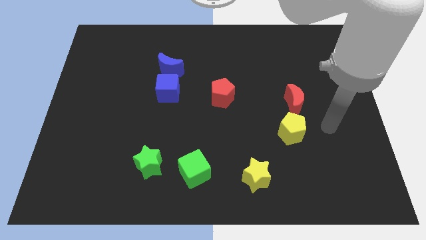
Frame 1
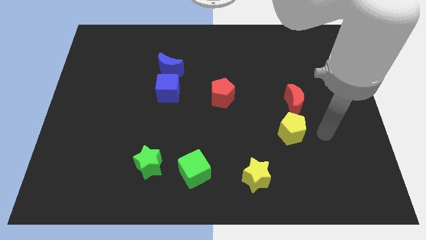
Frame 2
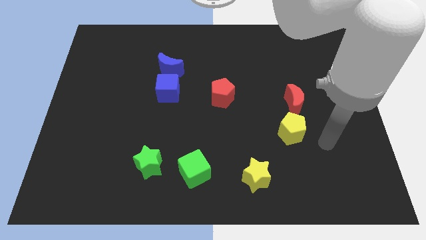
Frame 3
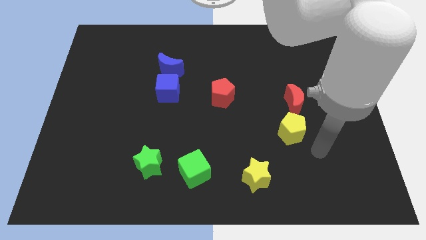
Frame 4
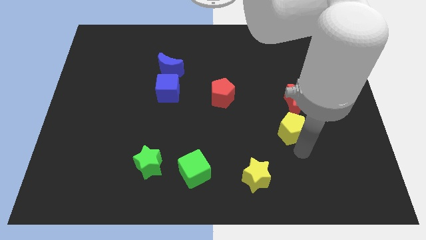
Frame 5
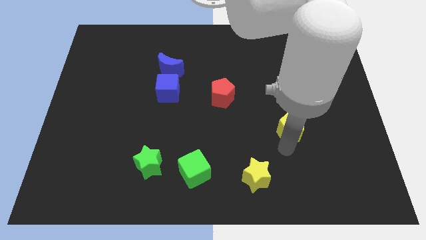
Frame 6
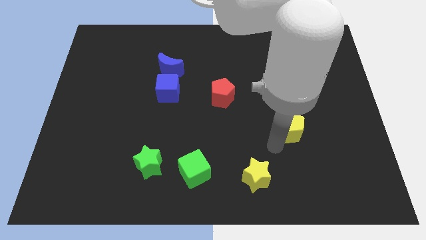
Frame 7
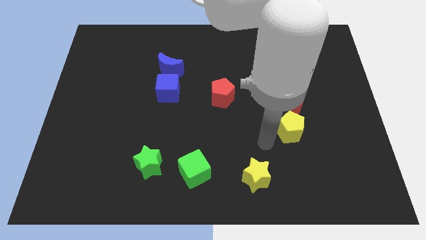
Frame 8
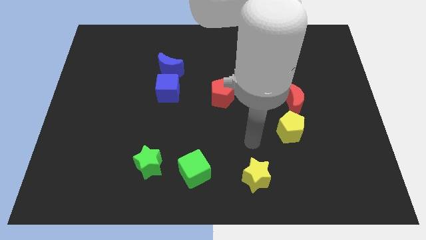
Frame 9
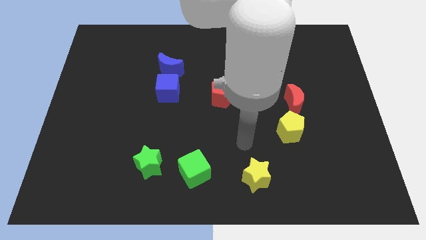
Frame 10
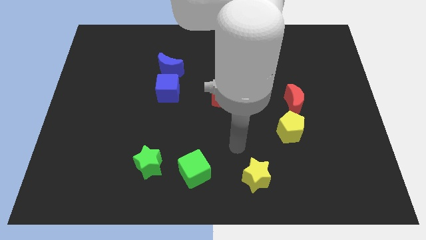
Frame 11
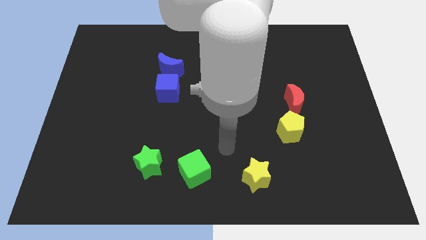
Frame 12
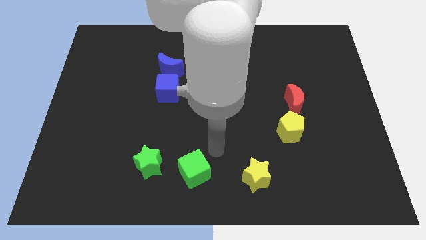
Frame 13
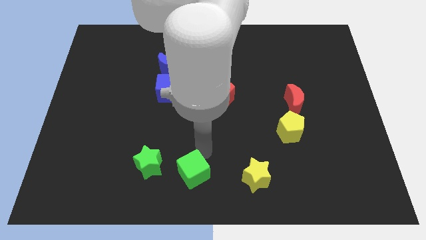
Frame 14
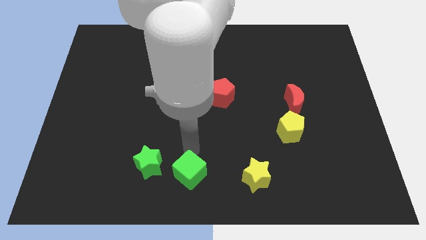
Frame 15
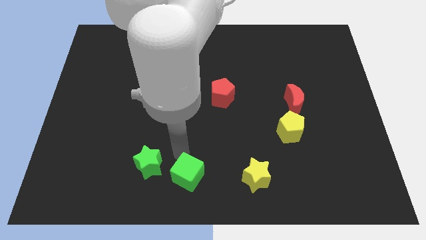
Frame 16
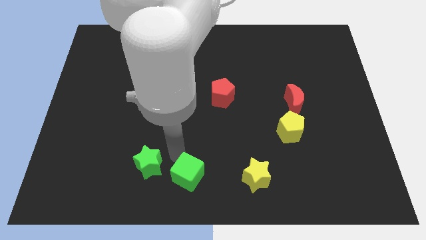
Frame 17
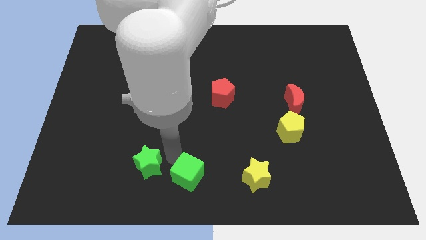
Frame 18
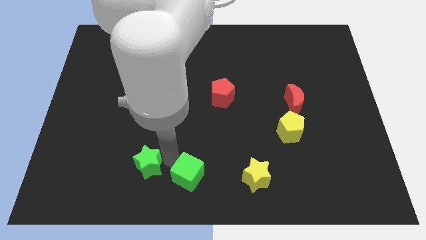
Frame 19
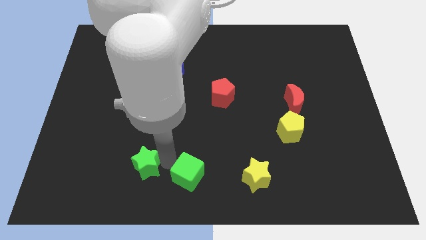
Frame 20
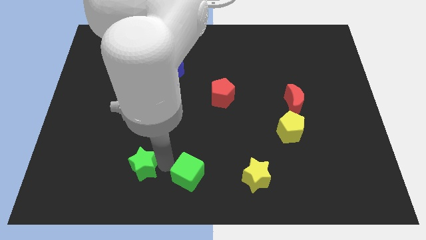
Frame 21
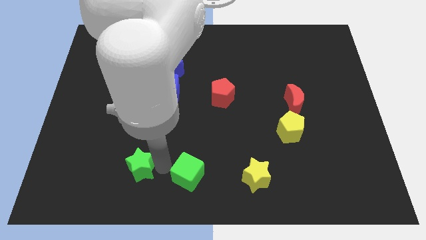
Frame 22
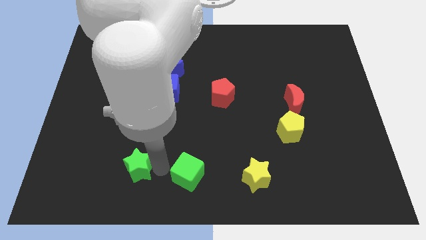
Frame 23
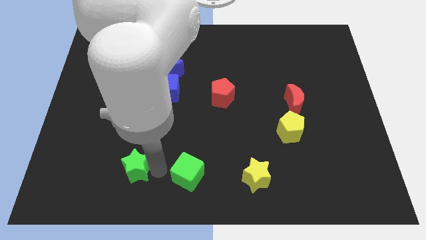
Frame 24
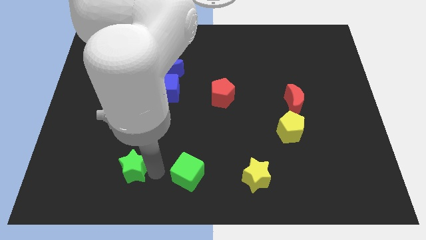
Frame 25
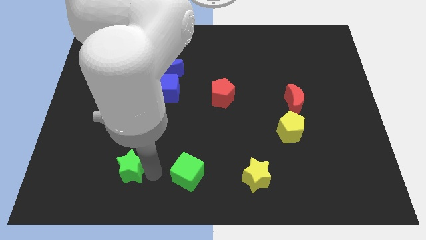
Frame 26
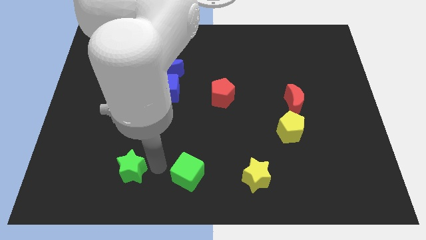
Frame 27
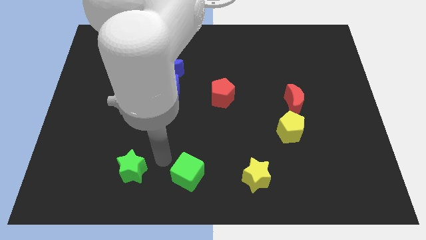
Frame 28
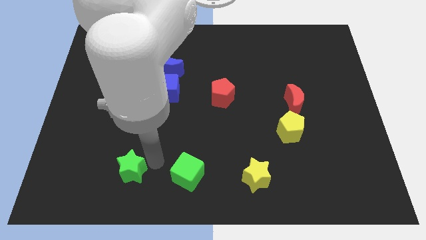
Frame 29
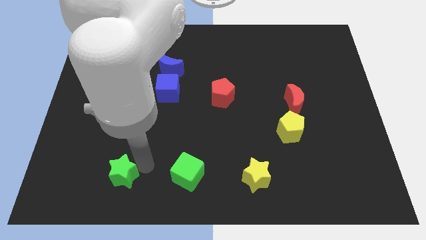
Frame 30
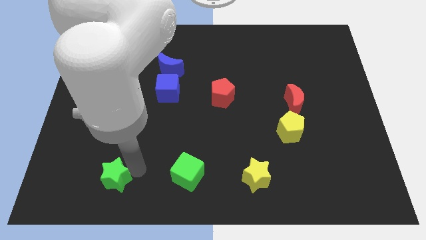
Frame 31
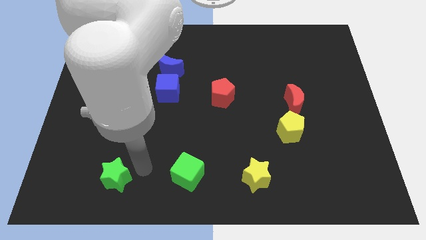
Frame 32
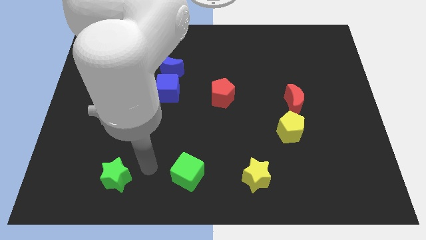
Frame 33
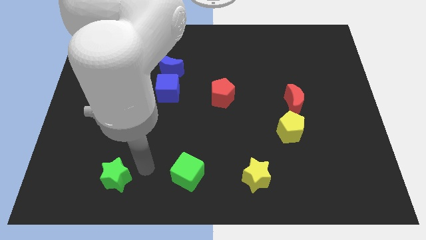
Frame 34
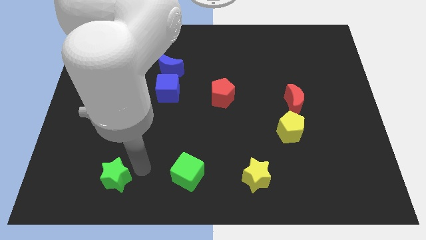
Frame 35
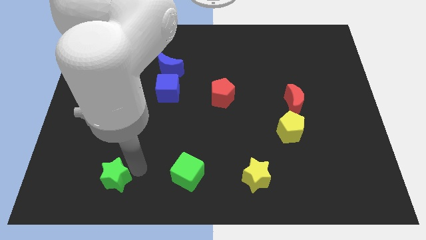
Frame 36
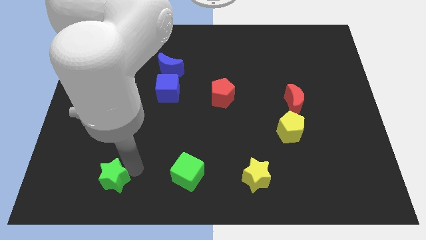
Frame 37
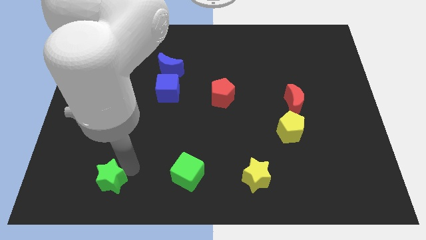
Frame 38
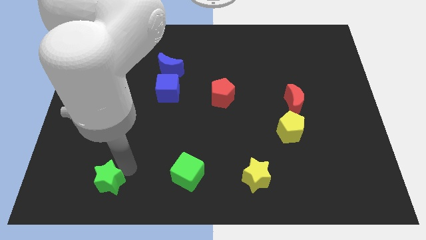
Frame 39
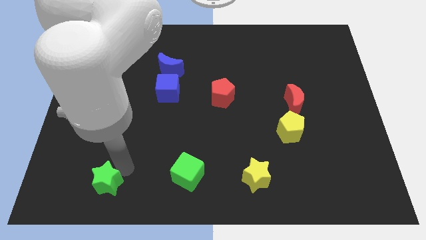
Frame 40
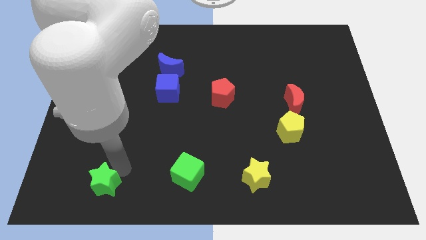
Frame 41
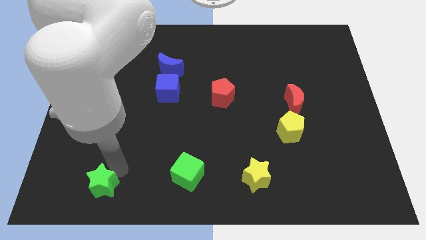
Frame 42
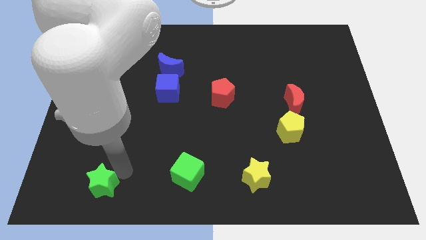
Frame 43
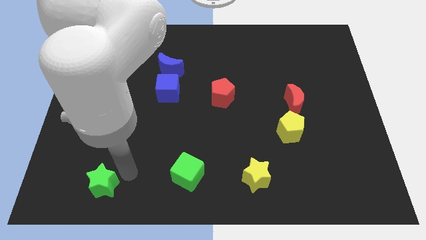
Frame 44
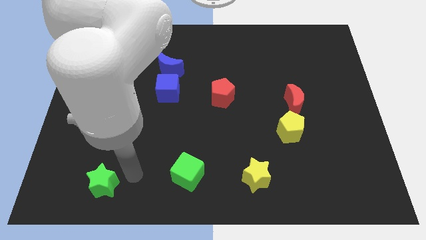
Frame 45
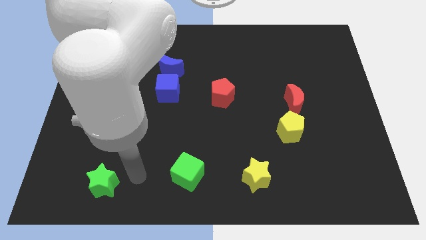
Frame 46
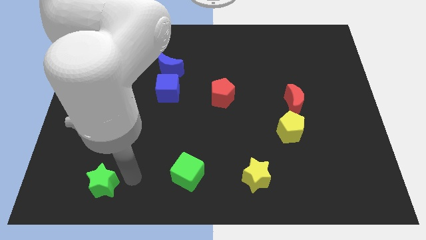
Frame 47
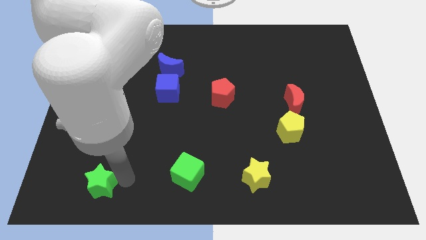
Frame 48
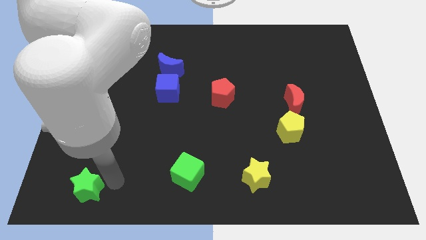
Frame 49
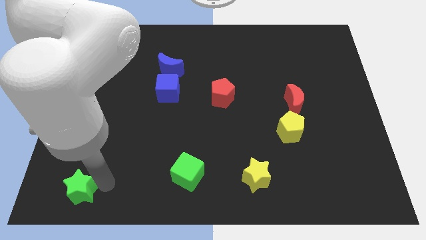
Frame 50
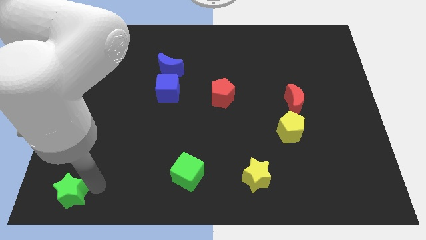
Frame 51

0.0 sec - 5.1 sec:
slide the green star to the bottom left of the board

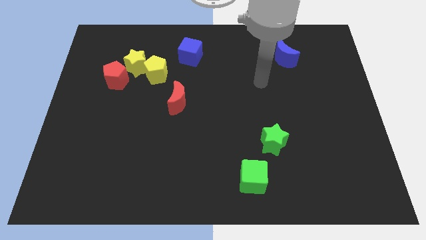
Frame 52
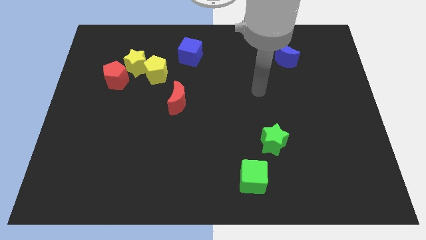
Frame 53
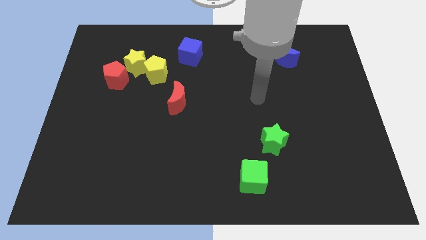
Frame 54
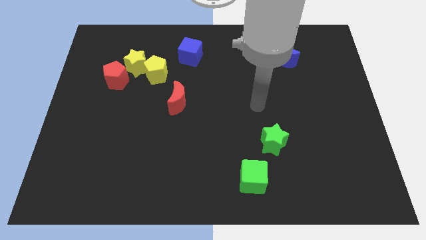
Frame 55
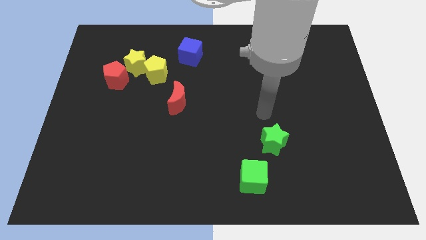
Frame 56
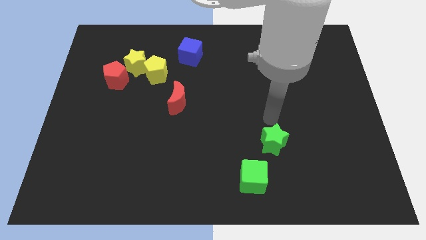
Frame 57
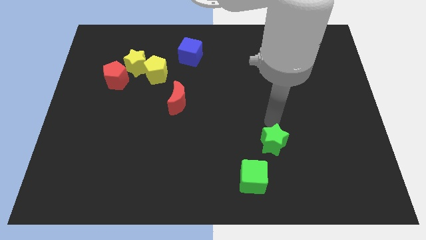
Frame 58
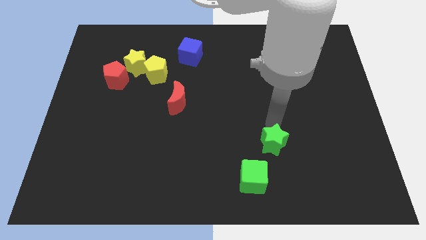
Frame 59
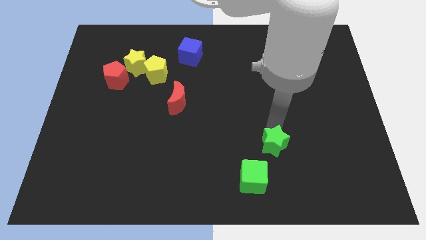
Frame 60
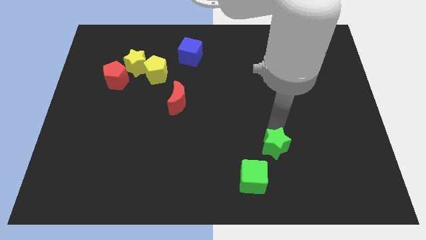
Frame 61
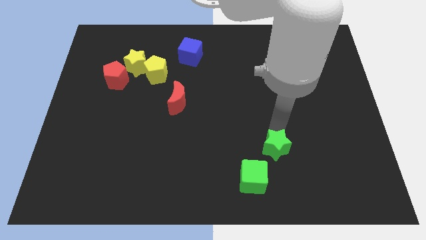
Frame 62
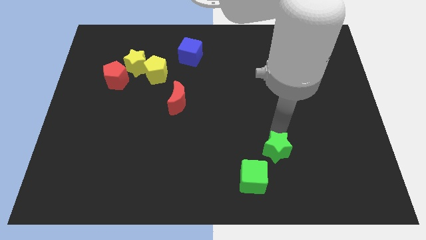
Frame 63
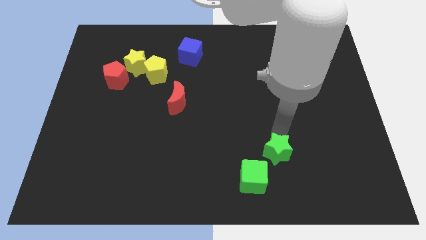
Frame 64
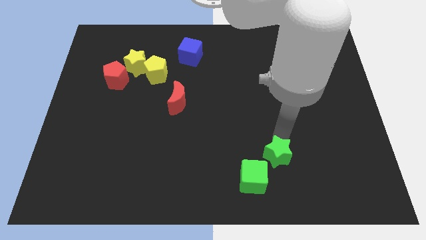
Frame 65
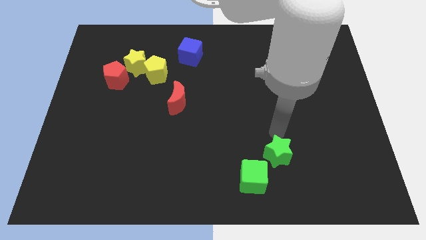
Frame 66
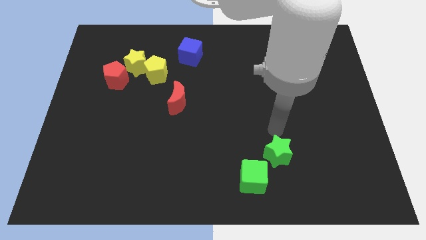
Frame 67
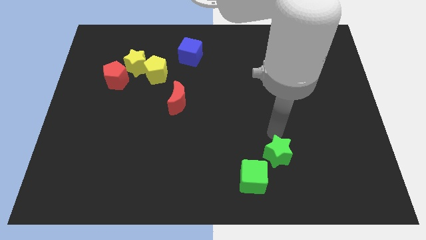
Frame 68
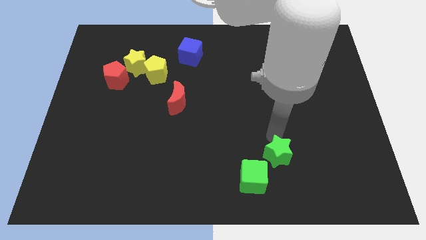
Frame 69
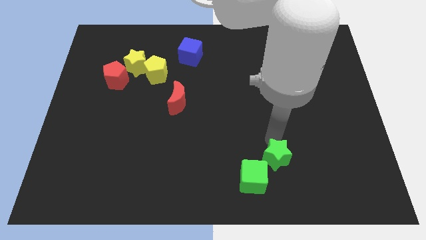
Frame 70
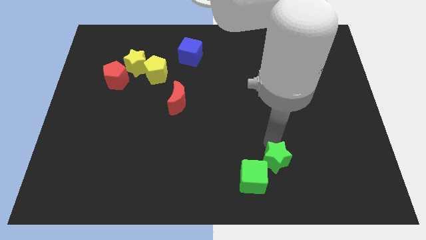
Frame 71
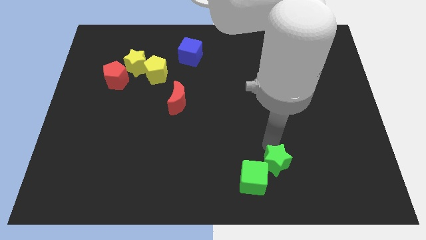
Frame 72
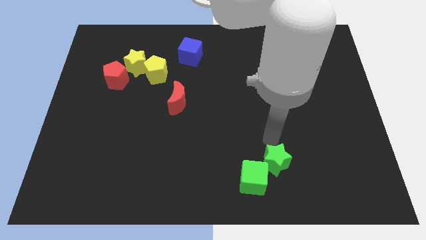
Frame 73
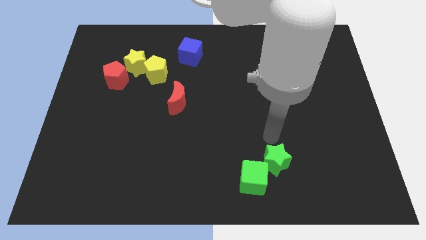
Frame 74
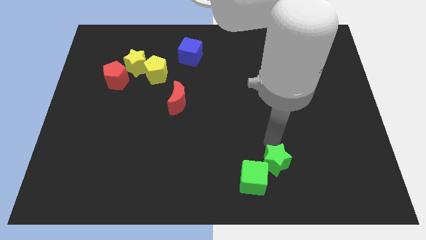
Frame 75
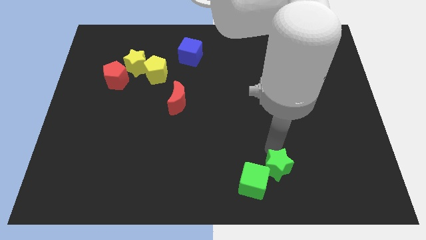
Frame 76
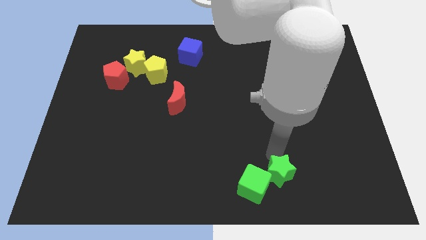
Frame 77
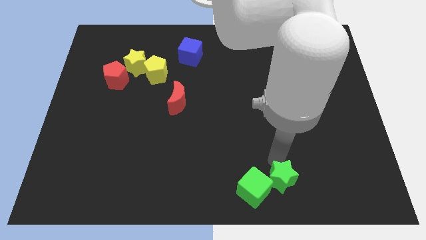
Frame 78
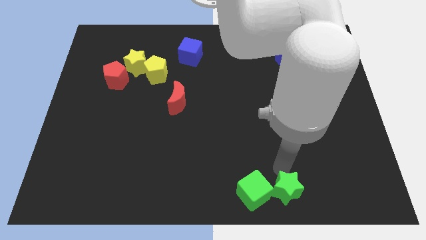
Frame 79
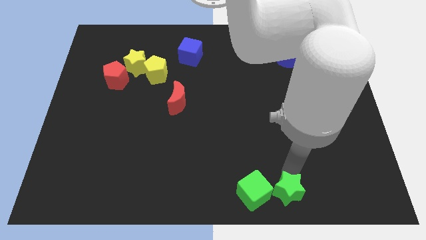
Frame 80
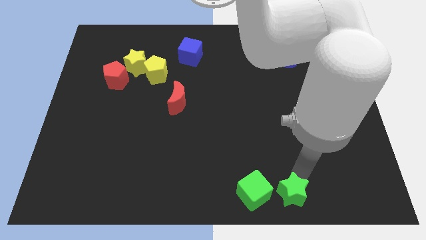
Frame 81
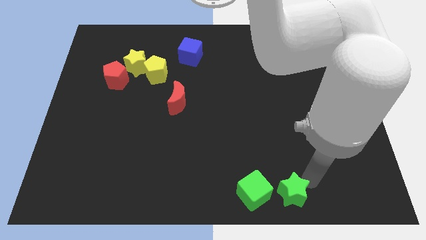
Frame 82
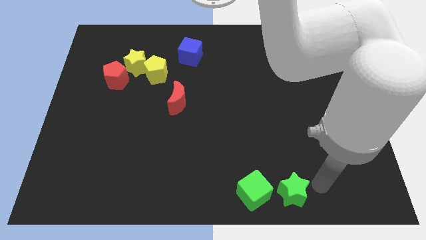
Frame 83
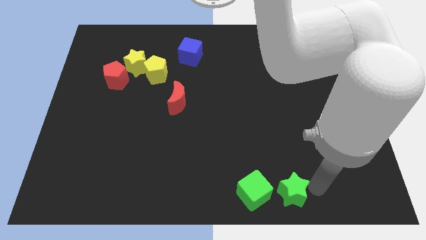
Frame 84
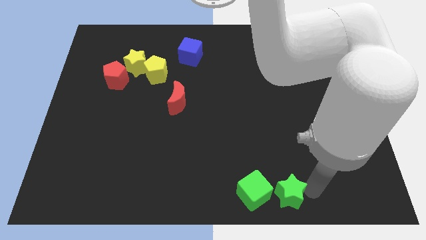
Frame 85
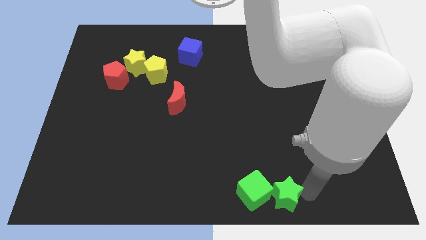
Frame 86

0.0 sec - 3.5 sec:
push the green star to the bottom
